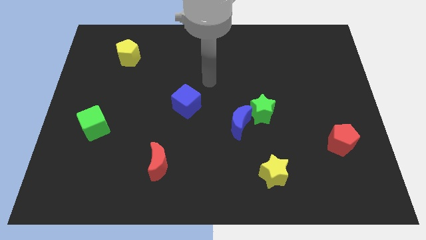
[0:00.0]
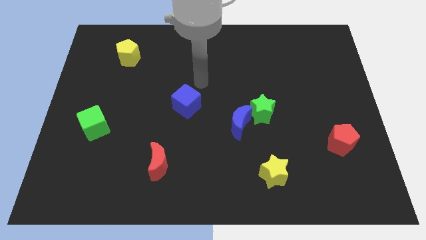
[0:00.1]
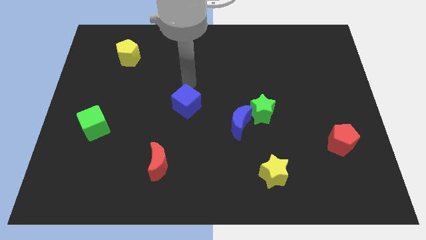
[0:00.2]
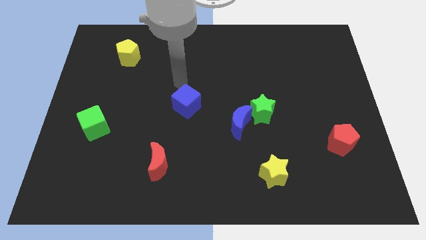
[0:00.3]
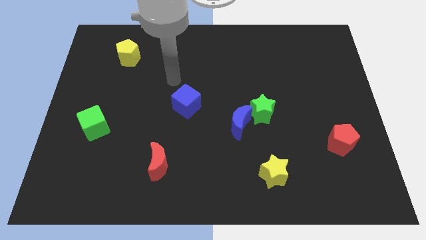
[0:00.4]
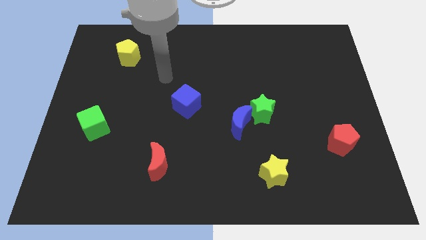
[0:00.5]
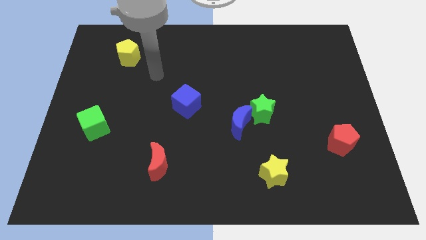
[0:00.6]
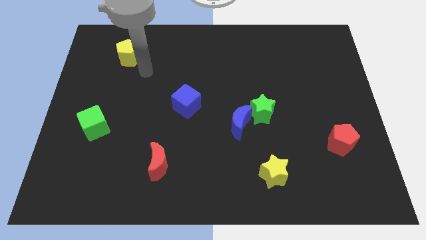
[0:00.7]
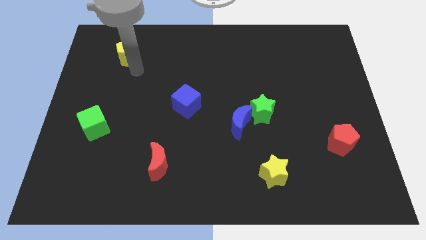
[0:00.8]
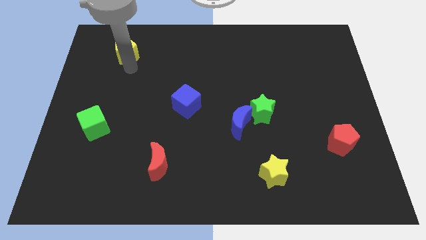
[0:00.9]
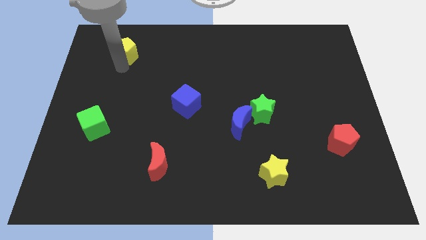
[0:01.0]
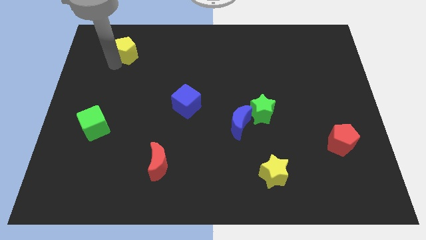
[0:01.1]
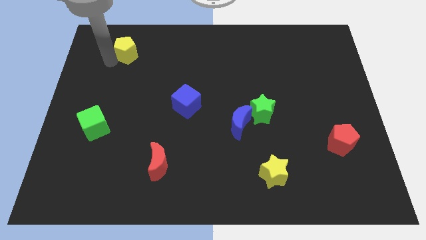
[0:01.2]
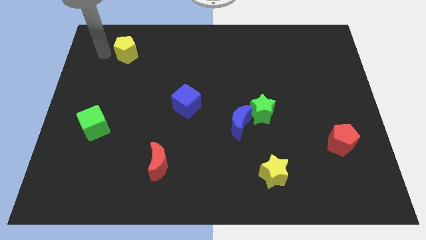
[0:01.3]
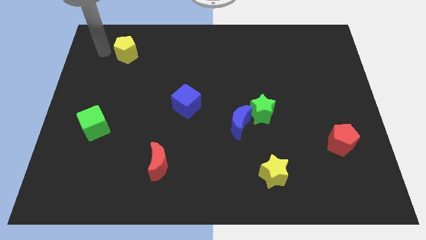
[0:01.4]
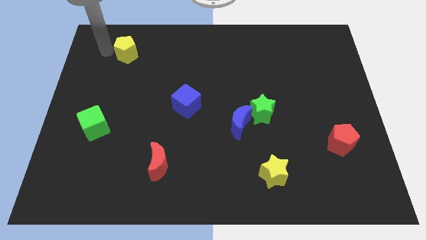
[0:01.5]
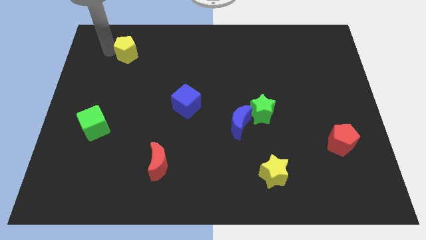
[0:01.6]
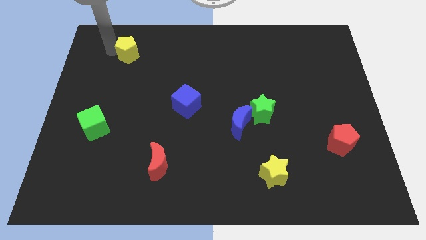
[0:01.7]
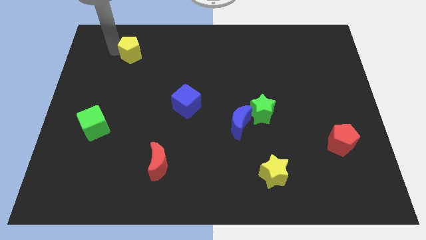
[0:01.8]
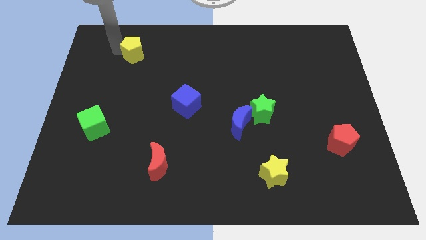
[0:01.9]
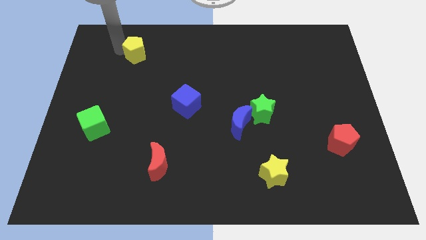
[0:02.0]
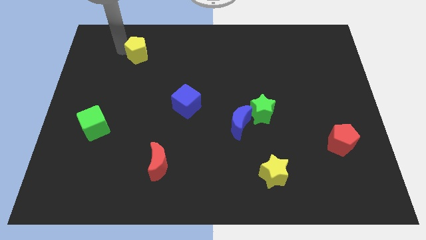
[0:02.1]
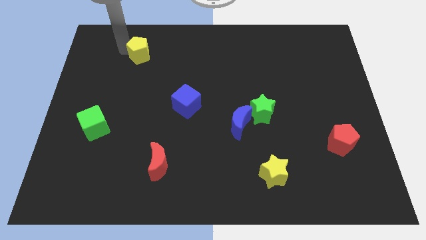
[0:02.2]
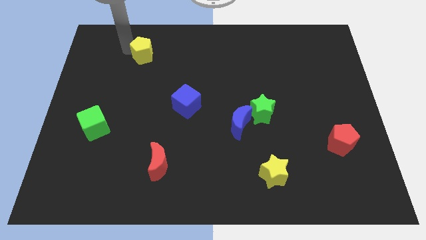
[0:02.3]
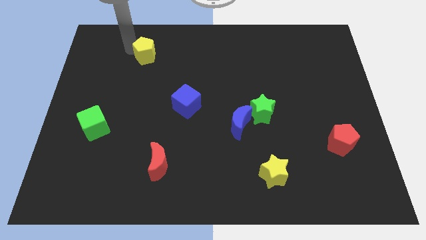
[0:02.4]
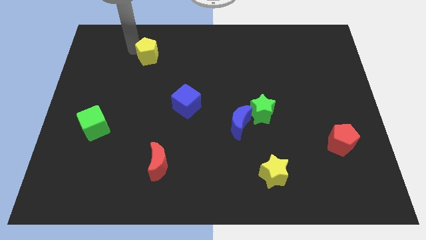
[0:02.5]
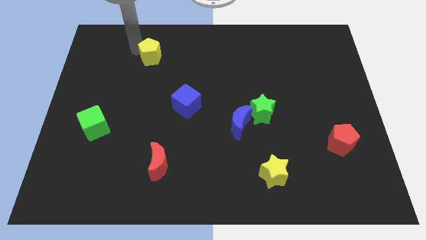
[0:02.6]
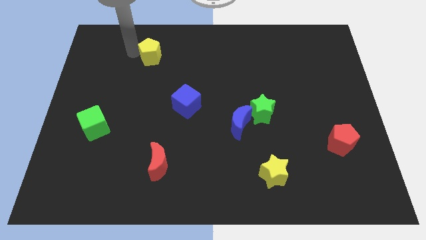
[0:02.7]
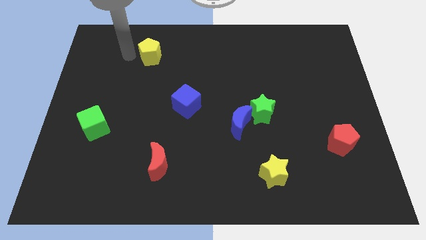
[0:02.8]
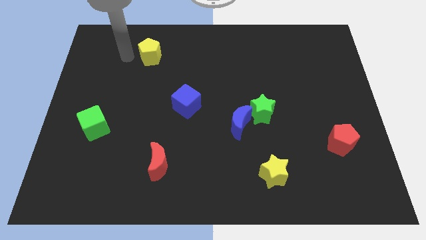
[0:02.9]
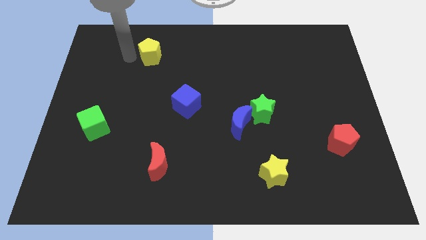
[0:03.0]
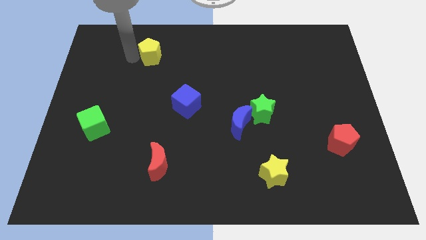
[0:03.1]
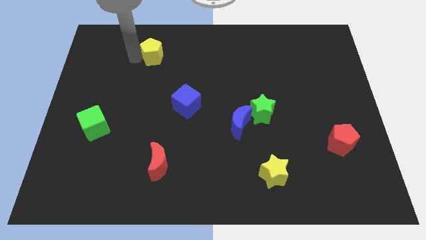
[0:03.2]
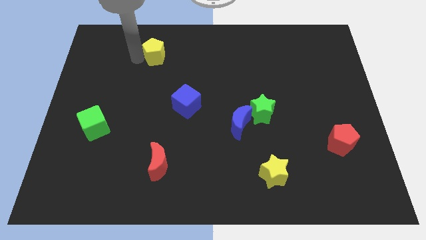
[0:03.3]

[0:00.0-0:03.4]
slightly move the yellow pentagon right

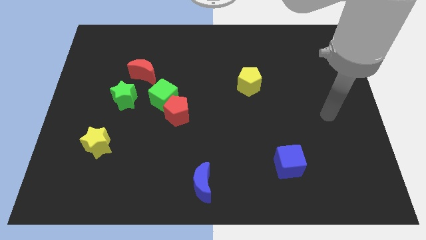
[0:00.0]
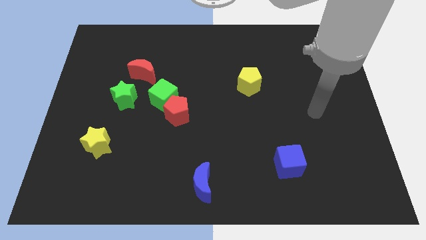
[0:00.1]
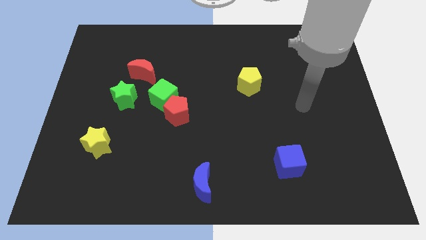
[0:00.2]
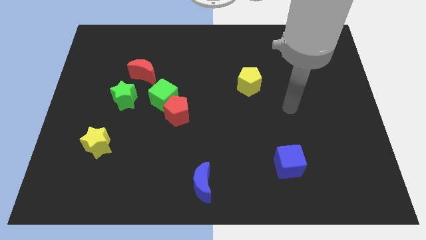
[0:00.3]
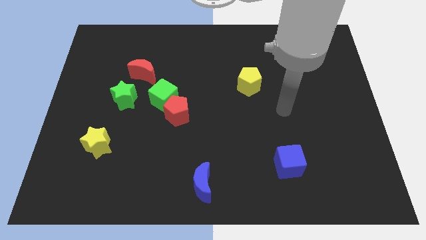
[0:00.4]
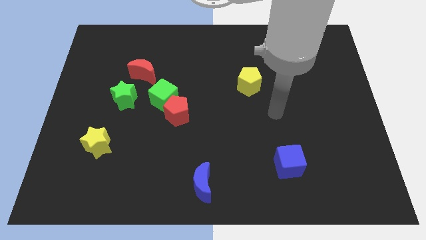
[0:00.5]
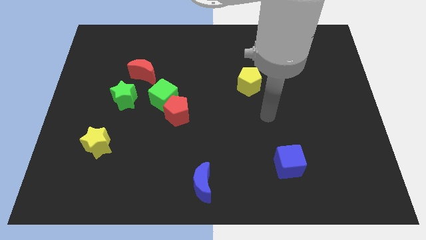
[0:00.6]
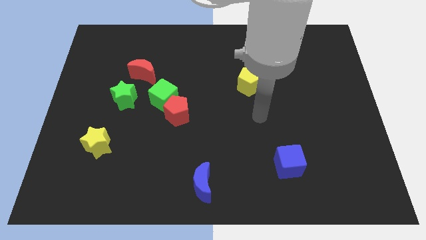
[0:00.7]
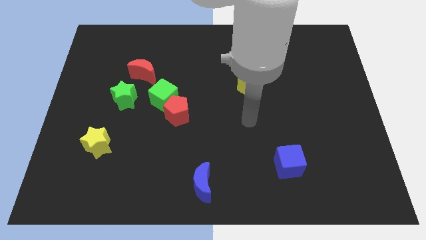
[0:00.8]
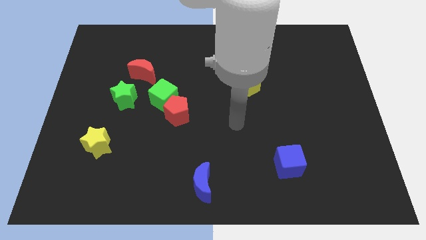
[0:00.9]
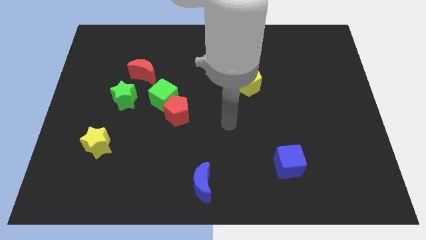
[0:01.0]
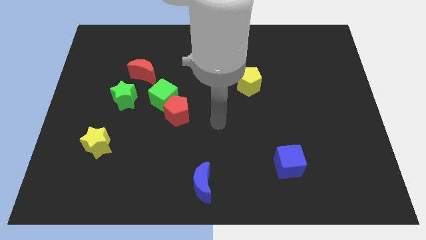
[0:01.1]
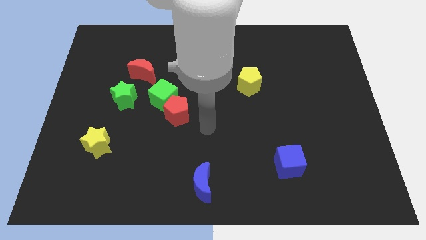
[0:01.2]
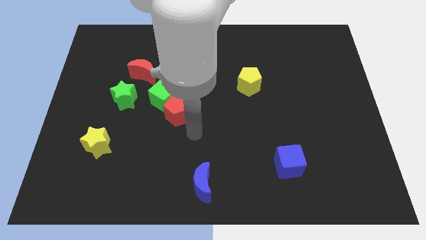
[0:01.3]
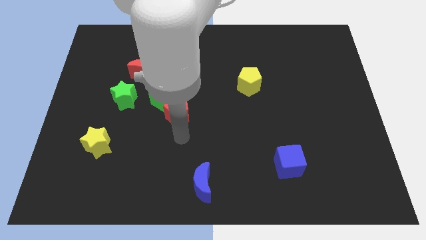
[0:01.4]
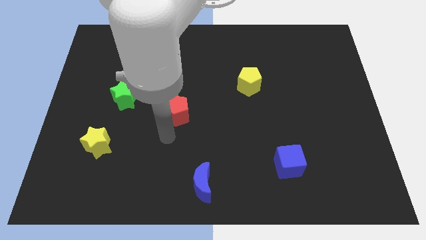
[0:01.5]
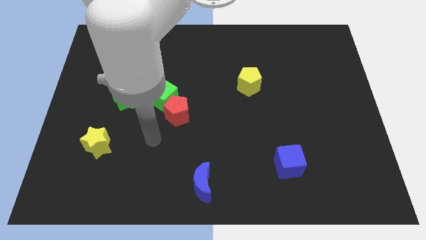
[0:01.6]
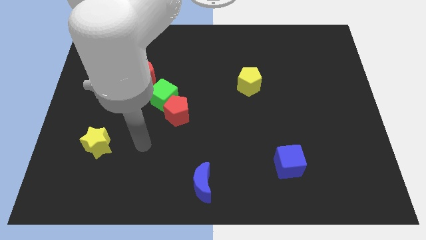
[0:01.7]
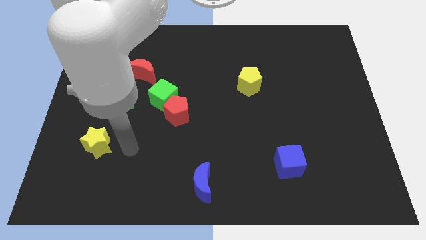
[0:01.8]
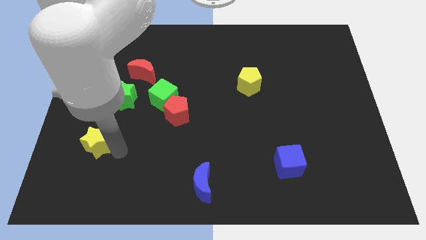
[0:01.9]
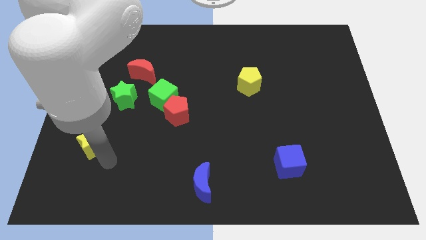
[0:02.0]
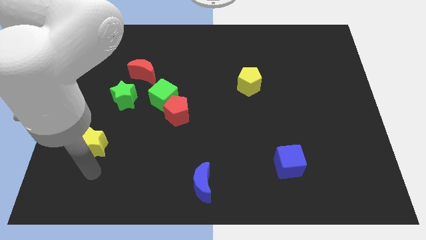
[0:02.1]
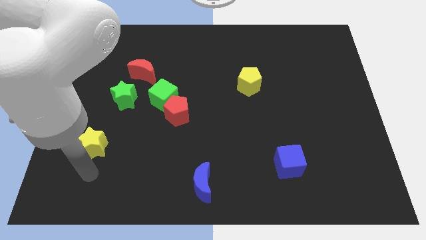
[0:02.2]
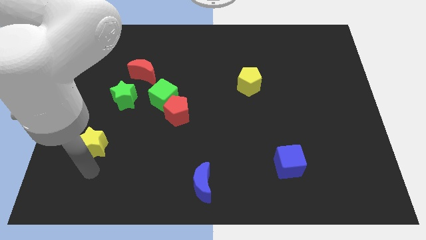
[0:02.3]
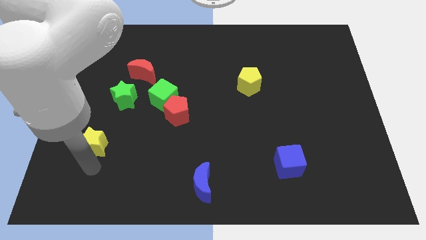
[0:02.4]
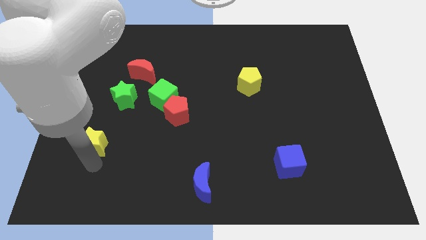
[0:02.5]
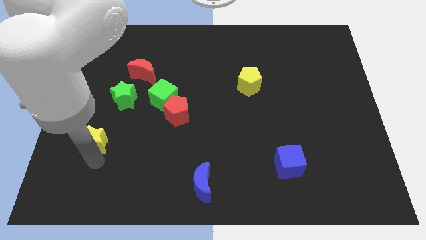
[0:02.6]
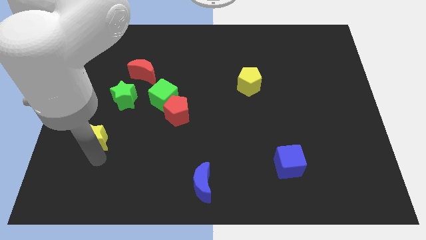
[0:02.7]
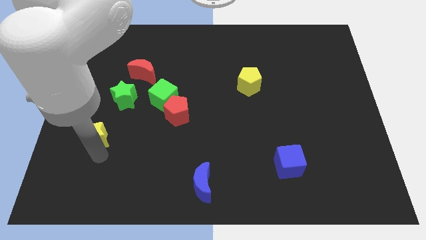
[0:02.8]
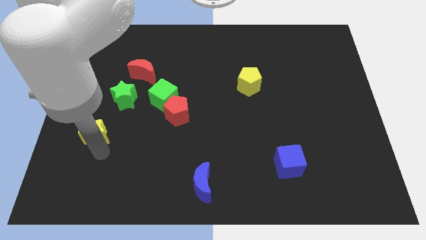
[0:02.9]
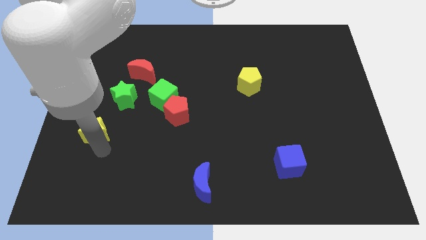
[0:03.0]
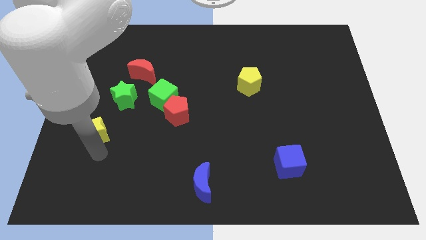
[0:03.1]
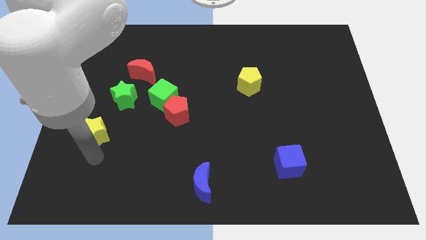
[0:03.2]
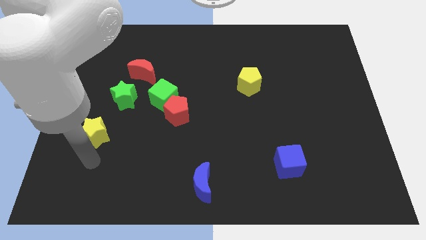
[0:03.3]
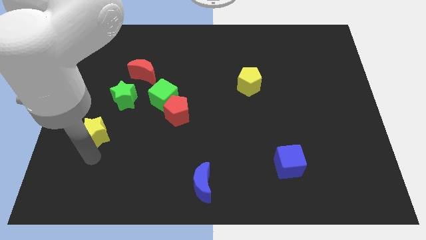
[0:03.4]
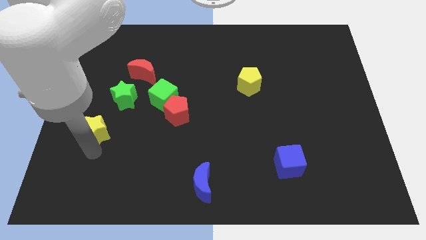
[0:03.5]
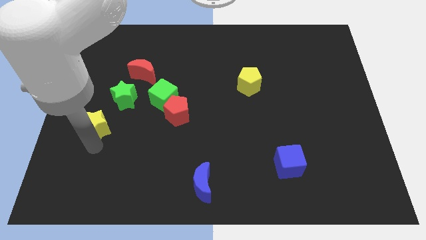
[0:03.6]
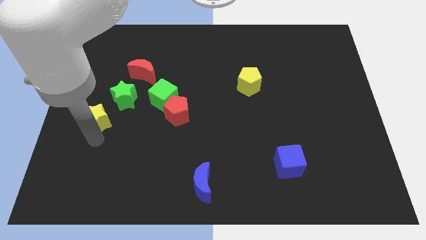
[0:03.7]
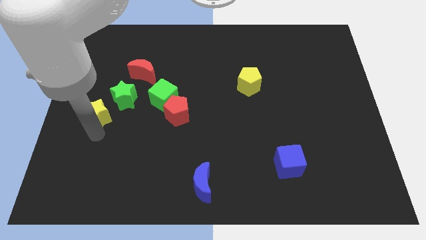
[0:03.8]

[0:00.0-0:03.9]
slightly push the yellow star upwards

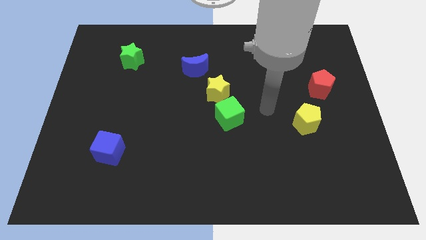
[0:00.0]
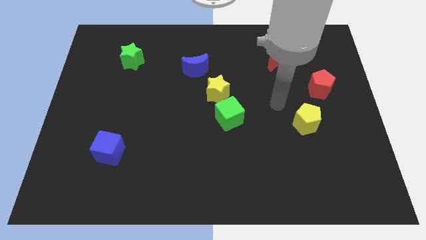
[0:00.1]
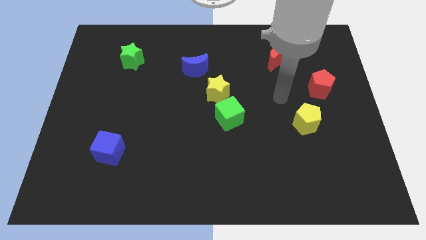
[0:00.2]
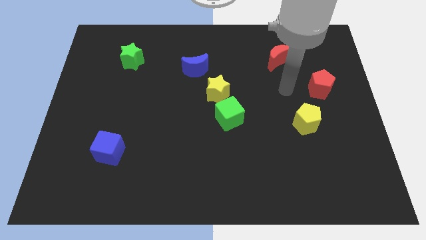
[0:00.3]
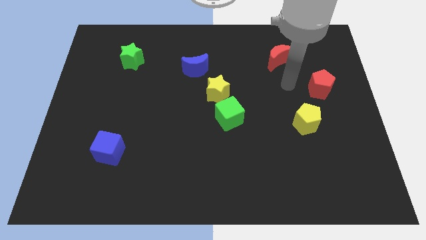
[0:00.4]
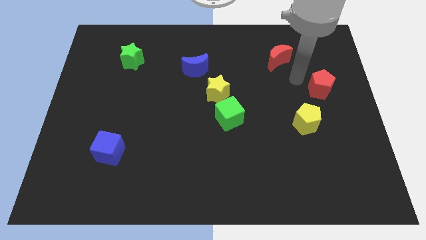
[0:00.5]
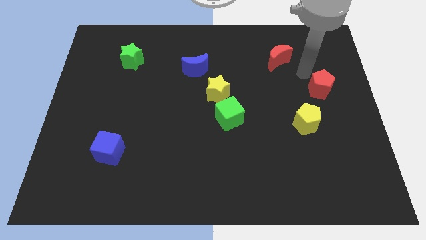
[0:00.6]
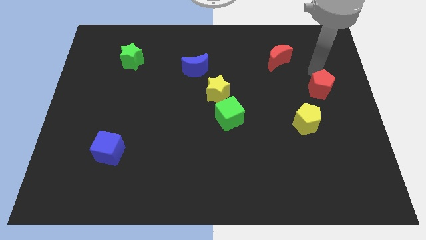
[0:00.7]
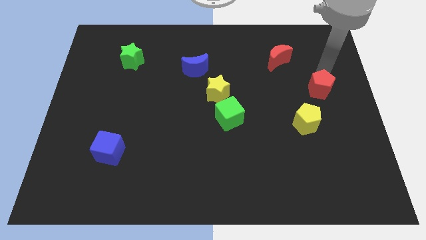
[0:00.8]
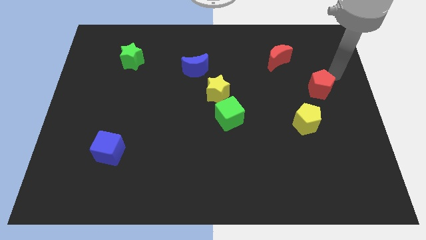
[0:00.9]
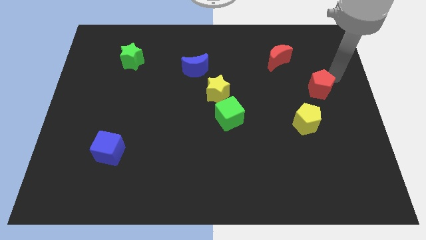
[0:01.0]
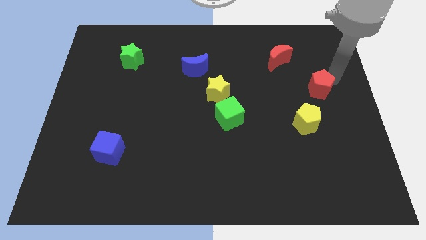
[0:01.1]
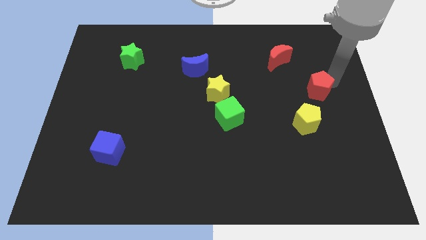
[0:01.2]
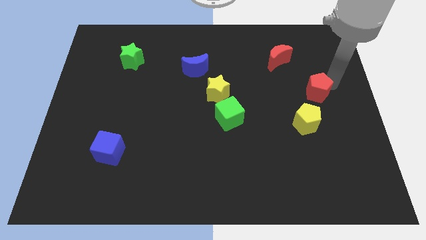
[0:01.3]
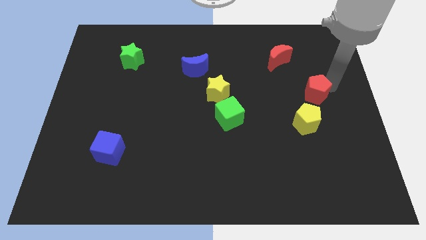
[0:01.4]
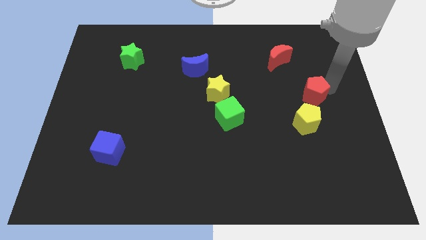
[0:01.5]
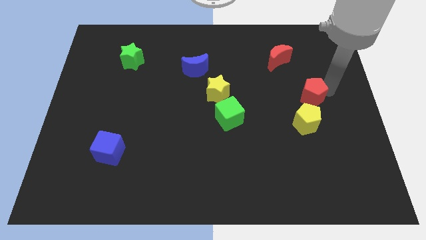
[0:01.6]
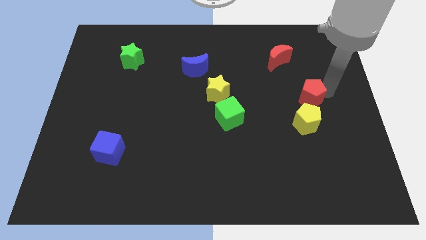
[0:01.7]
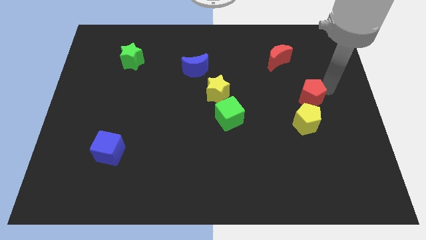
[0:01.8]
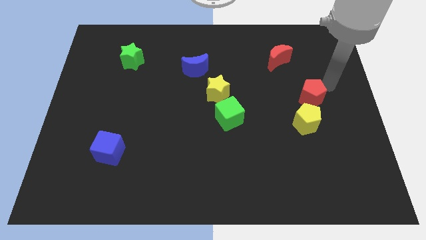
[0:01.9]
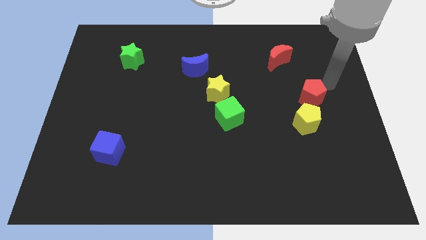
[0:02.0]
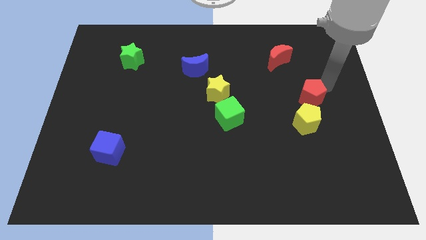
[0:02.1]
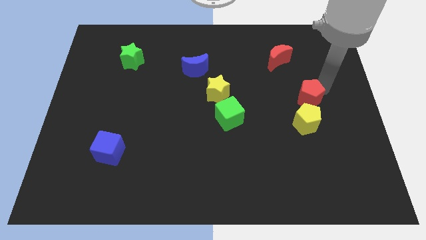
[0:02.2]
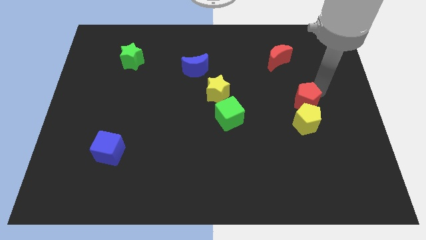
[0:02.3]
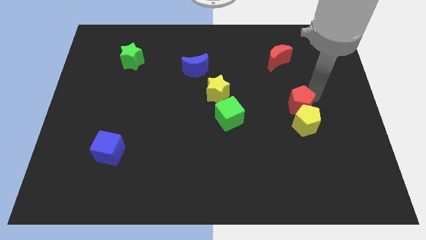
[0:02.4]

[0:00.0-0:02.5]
push the red pentagon somewhat downwards and to the left diagonally
